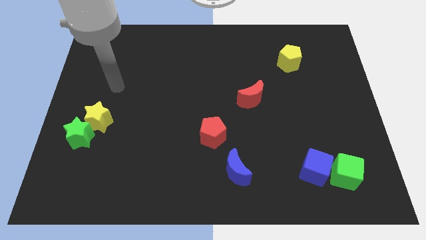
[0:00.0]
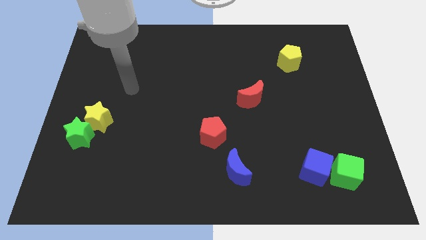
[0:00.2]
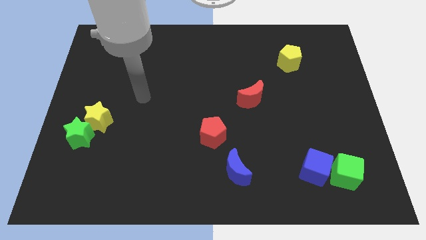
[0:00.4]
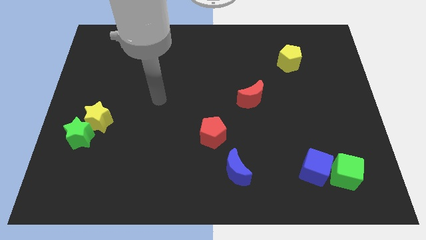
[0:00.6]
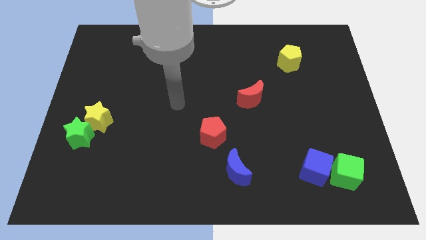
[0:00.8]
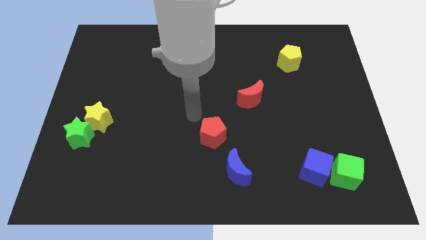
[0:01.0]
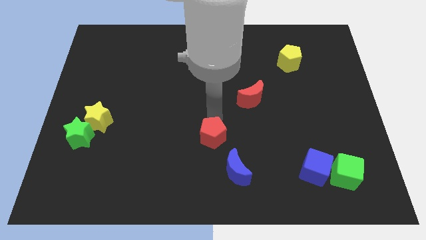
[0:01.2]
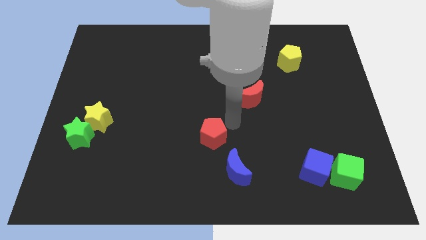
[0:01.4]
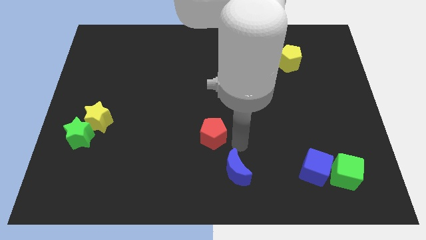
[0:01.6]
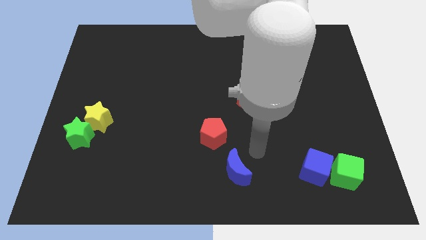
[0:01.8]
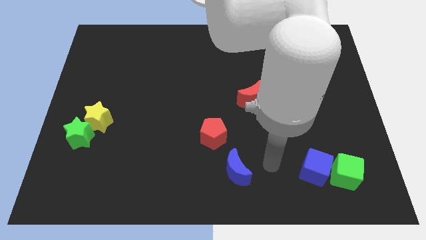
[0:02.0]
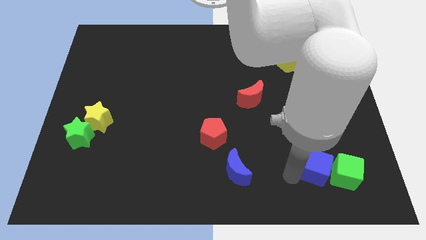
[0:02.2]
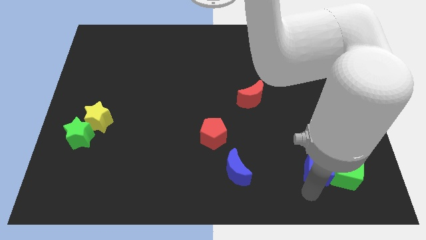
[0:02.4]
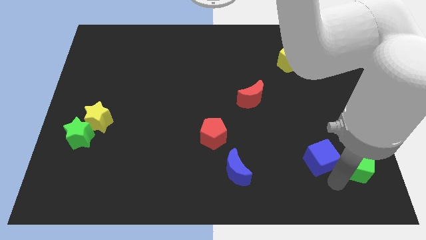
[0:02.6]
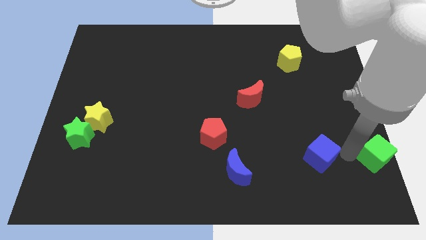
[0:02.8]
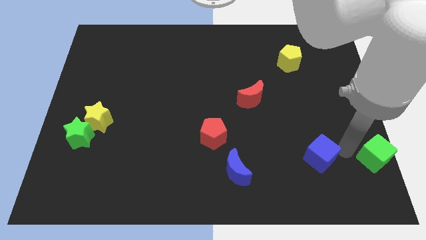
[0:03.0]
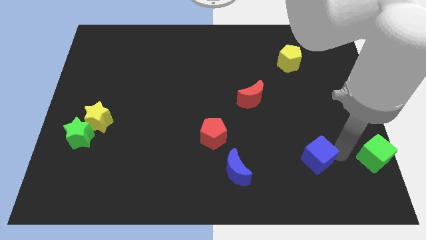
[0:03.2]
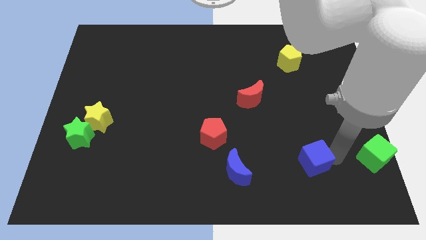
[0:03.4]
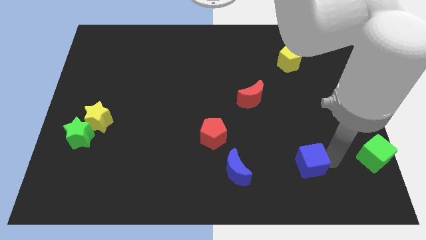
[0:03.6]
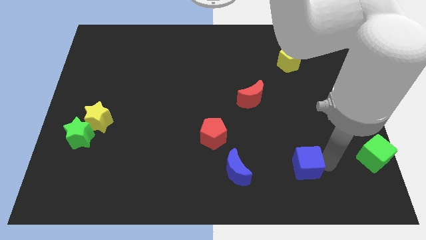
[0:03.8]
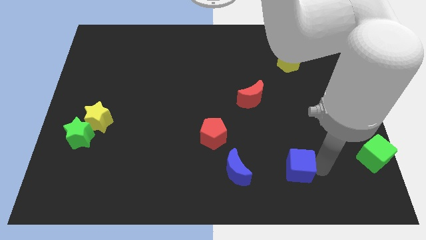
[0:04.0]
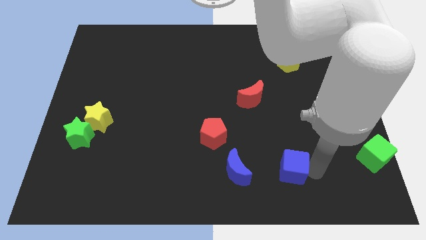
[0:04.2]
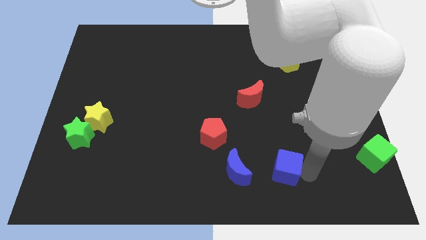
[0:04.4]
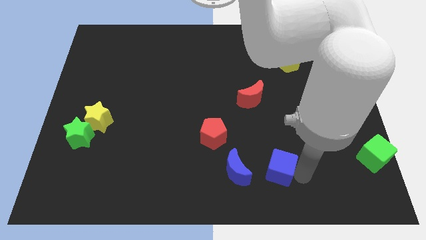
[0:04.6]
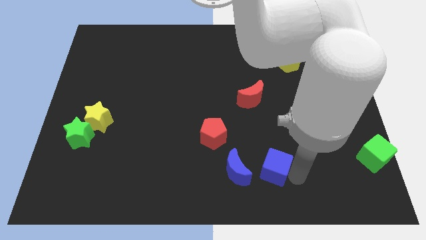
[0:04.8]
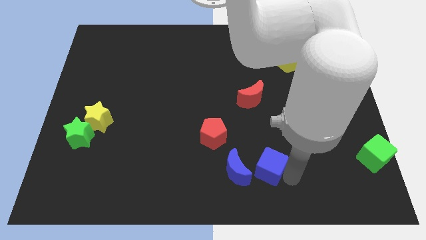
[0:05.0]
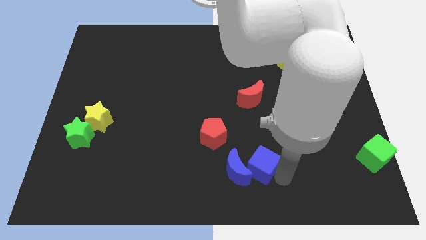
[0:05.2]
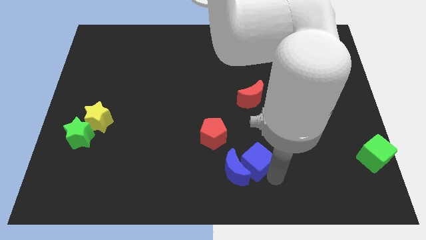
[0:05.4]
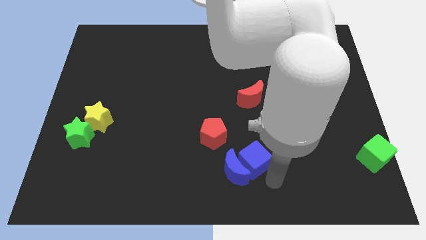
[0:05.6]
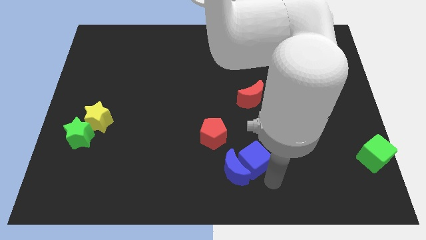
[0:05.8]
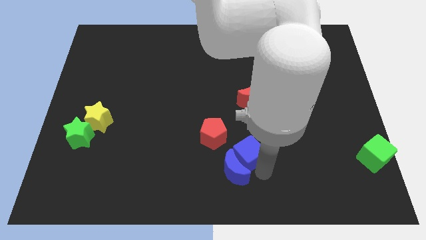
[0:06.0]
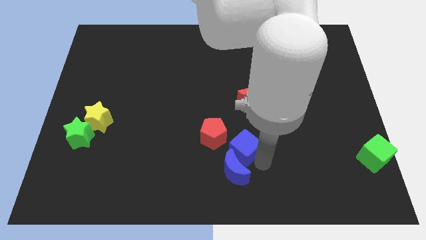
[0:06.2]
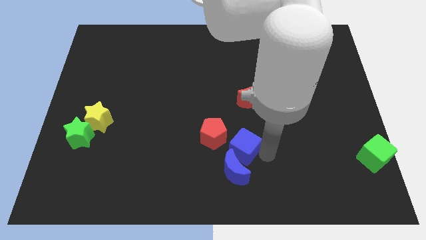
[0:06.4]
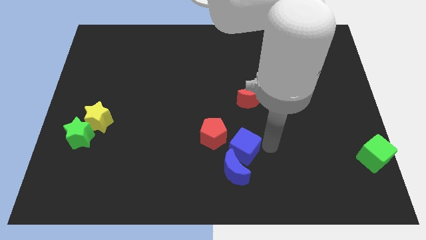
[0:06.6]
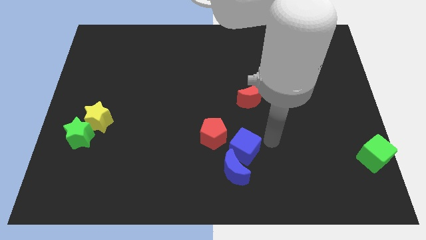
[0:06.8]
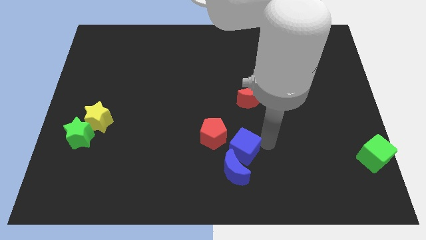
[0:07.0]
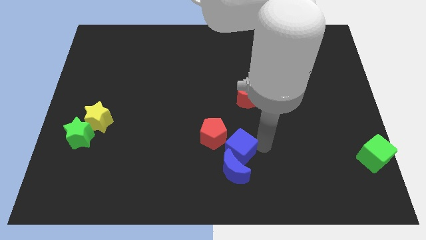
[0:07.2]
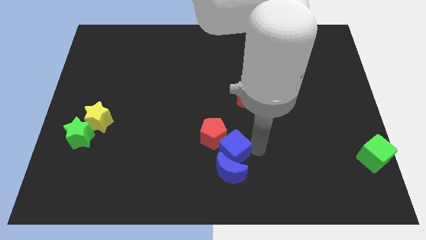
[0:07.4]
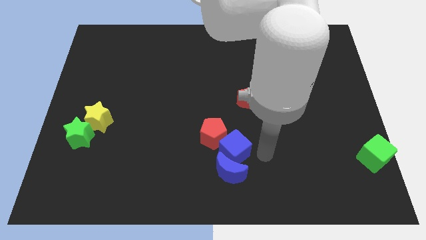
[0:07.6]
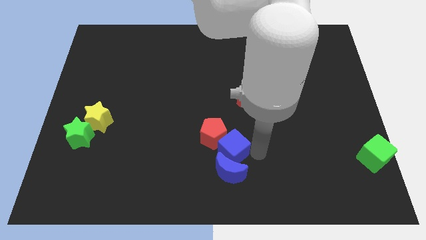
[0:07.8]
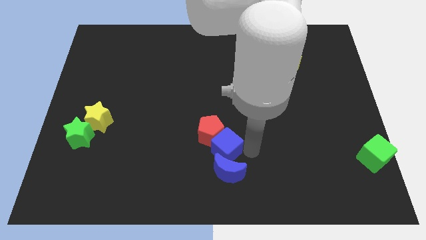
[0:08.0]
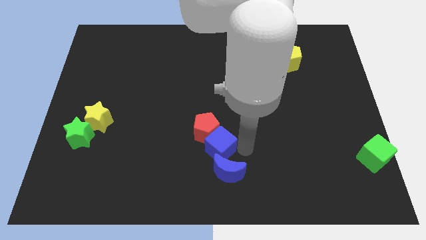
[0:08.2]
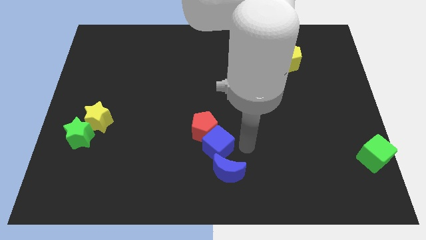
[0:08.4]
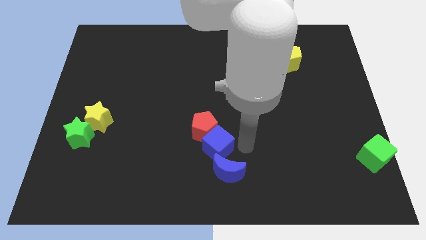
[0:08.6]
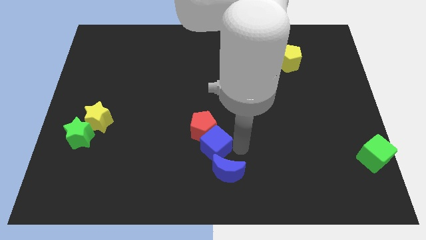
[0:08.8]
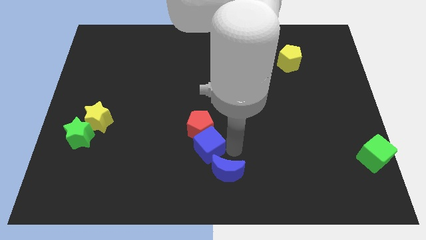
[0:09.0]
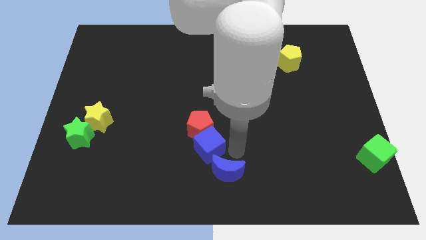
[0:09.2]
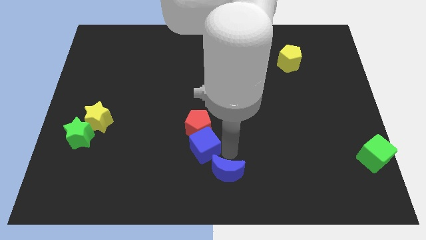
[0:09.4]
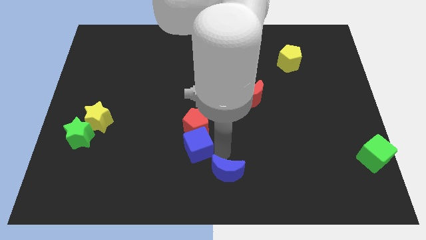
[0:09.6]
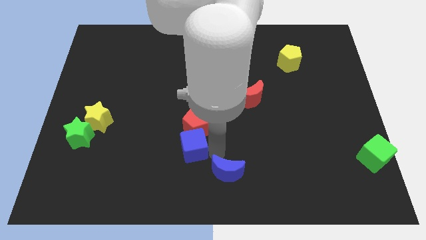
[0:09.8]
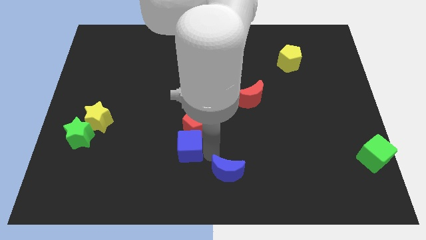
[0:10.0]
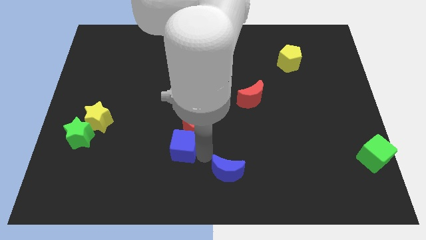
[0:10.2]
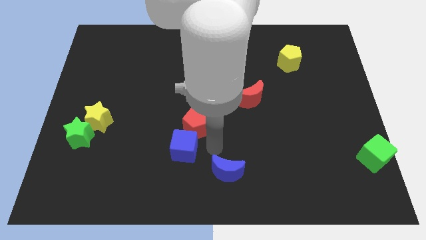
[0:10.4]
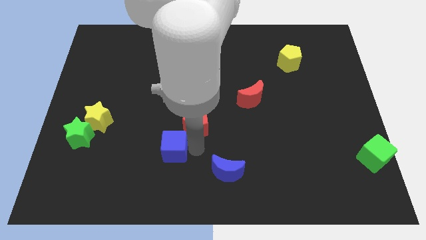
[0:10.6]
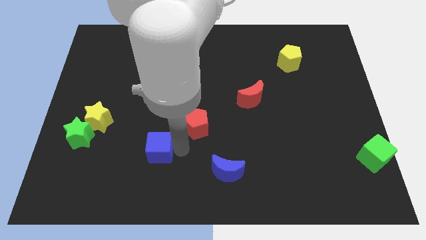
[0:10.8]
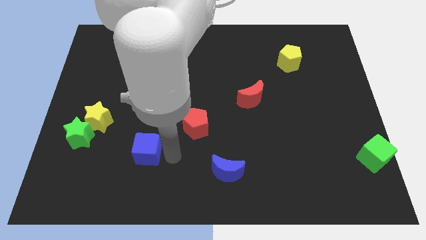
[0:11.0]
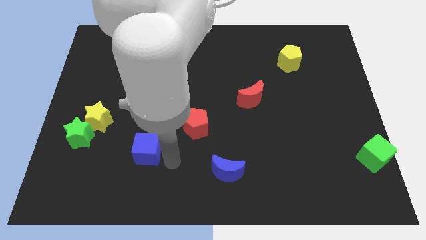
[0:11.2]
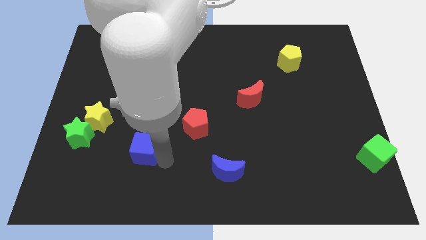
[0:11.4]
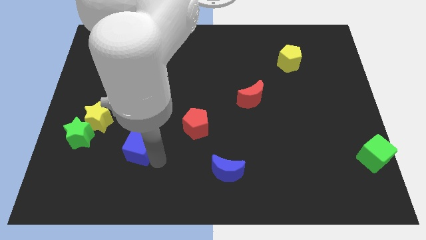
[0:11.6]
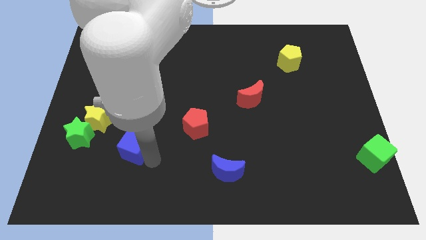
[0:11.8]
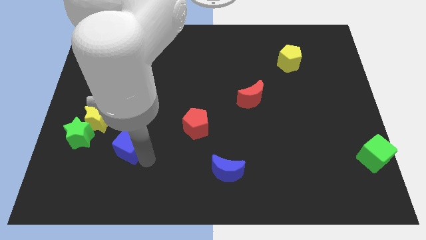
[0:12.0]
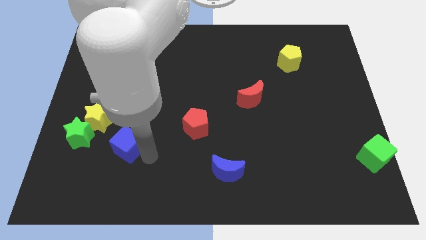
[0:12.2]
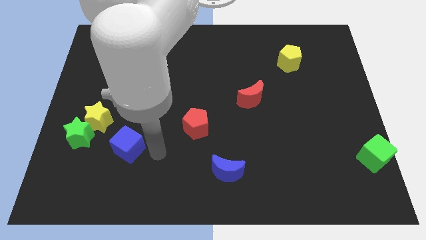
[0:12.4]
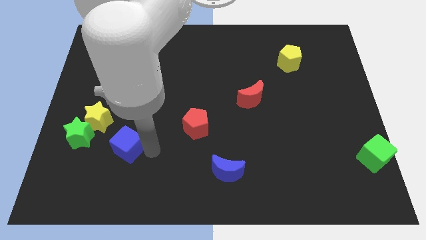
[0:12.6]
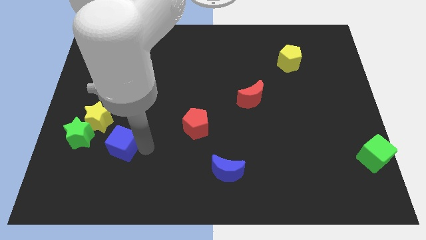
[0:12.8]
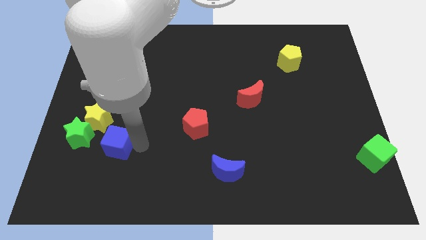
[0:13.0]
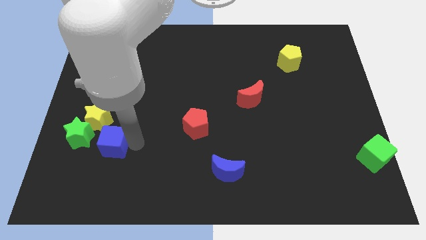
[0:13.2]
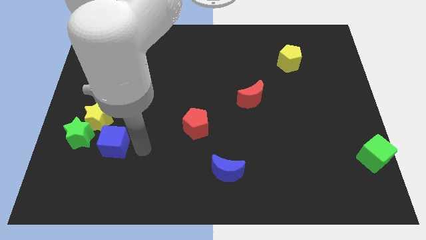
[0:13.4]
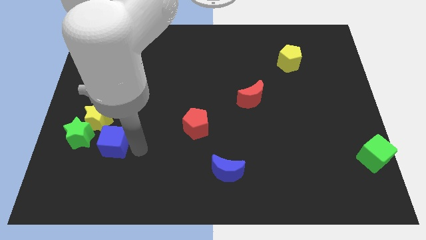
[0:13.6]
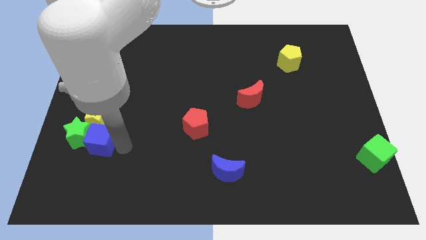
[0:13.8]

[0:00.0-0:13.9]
push the blue cube close to the green star
